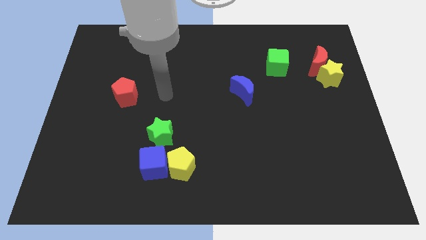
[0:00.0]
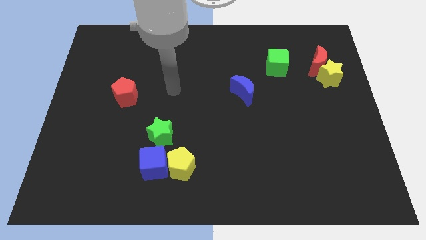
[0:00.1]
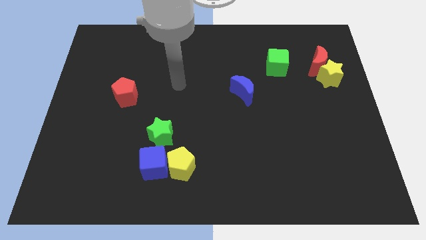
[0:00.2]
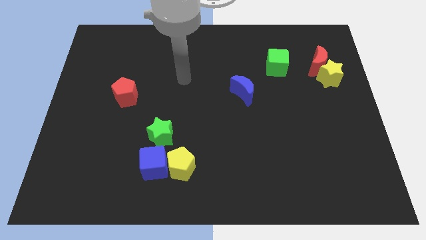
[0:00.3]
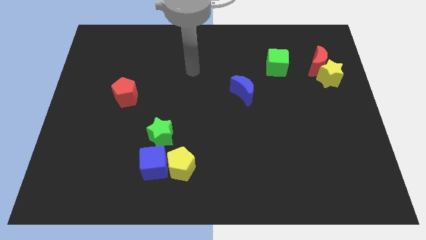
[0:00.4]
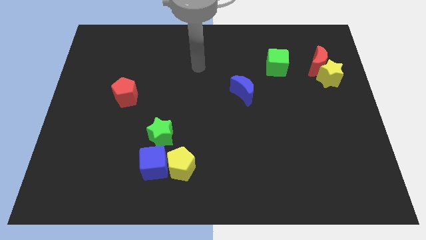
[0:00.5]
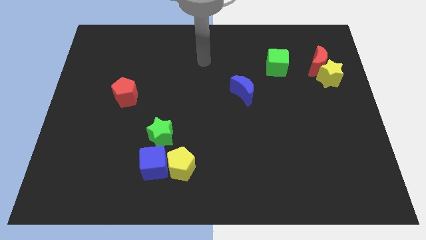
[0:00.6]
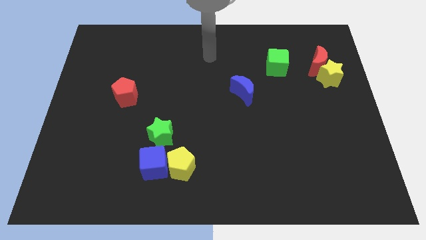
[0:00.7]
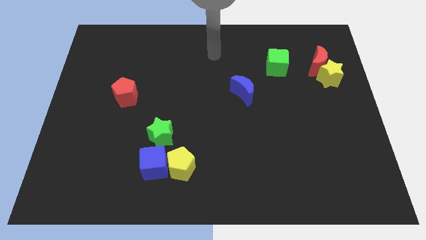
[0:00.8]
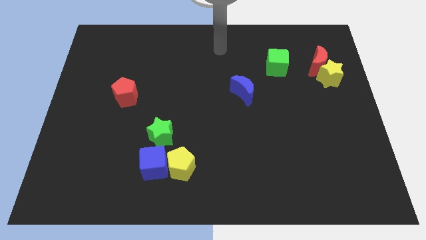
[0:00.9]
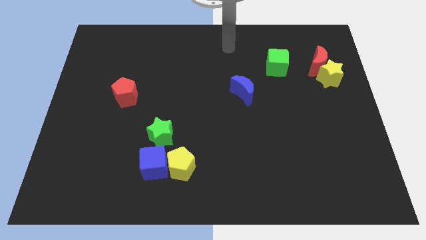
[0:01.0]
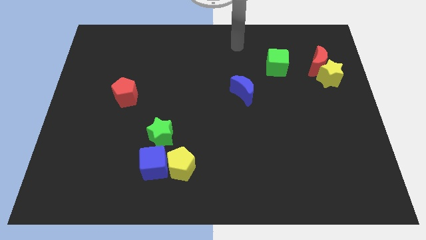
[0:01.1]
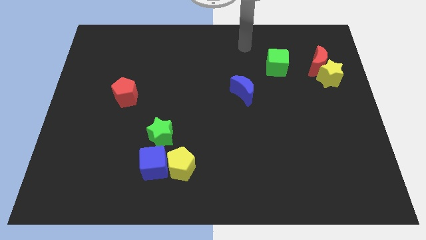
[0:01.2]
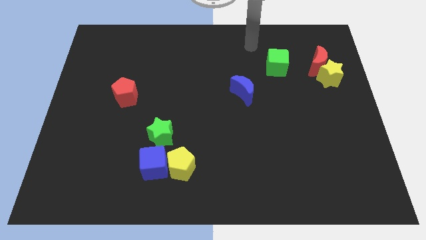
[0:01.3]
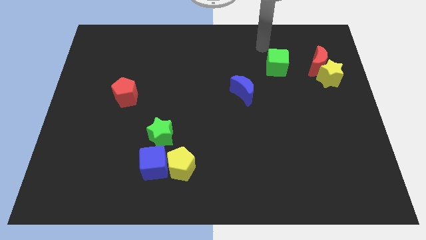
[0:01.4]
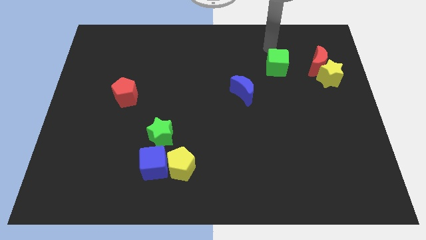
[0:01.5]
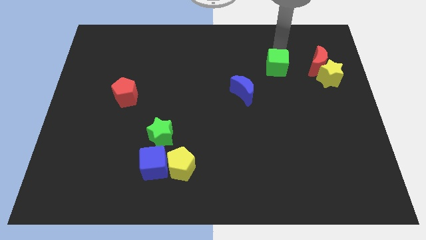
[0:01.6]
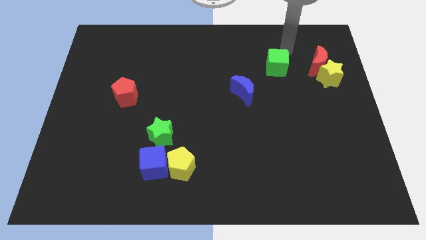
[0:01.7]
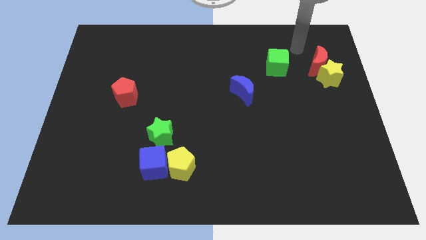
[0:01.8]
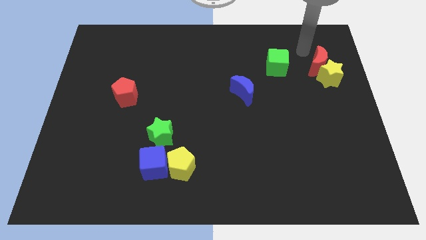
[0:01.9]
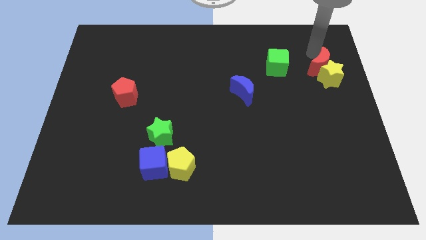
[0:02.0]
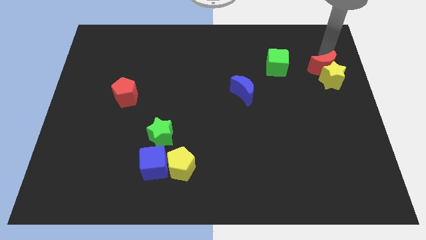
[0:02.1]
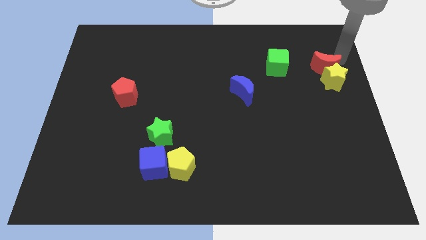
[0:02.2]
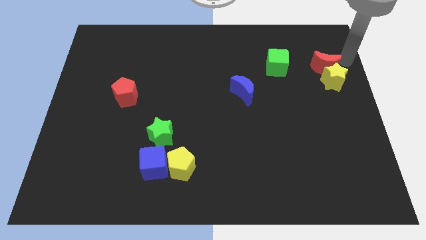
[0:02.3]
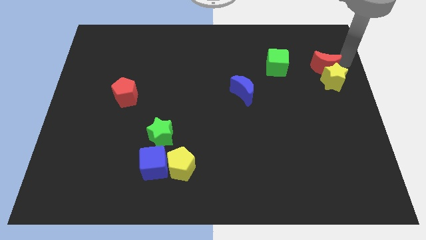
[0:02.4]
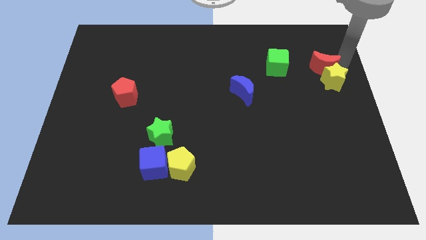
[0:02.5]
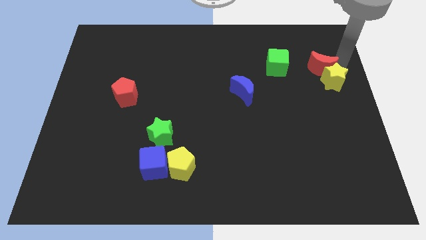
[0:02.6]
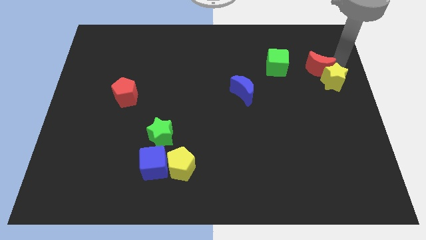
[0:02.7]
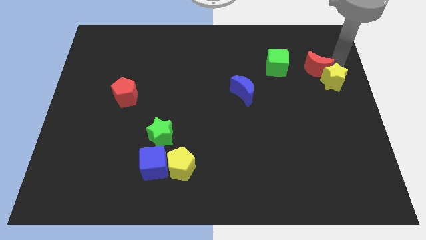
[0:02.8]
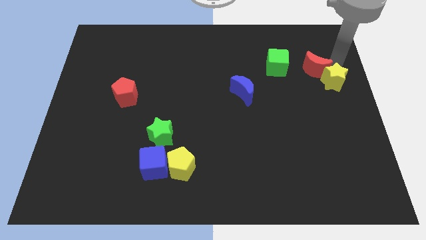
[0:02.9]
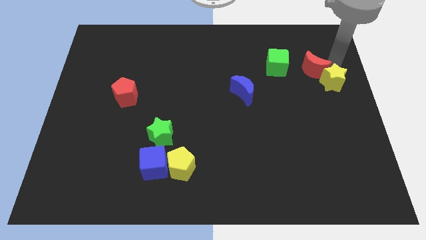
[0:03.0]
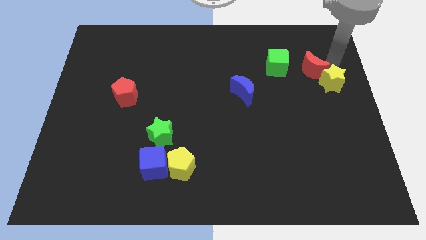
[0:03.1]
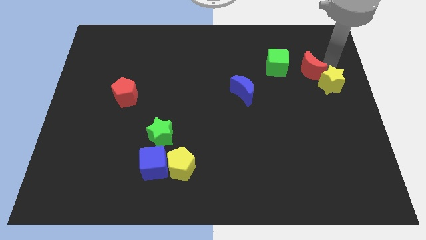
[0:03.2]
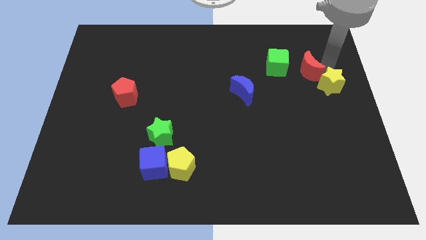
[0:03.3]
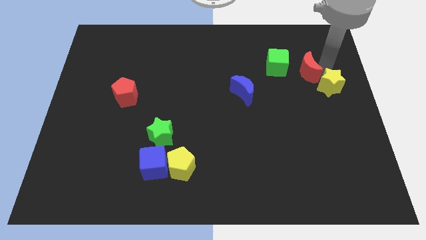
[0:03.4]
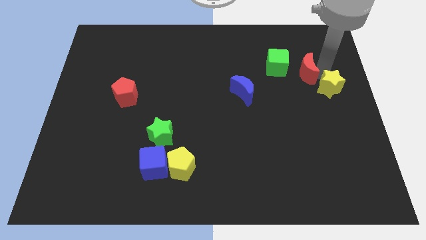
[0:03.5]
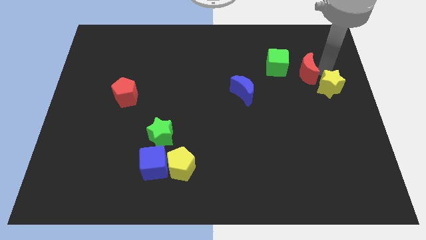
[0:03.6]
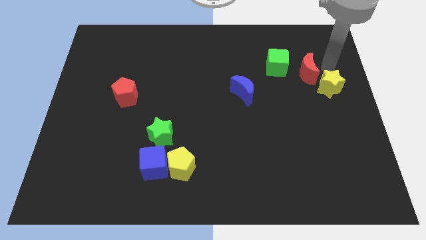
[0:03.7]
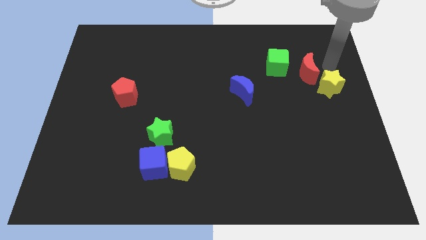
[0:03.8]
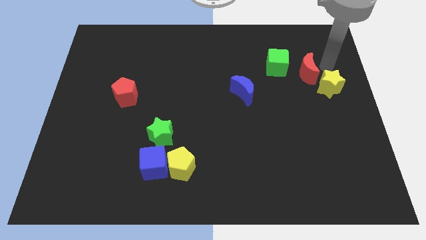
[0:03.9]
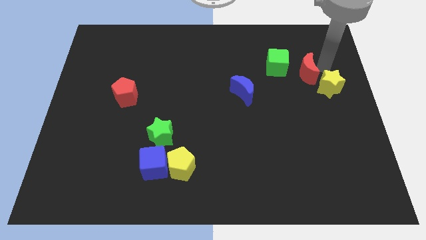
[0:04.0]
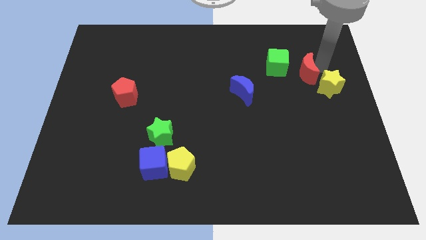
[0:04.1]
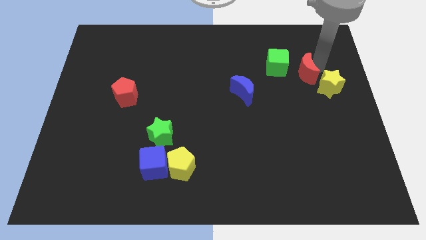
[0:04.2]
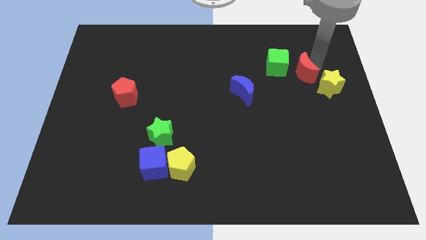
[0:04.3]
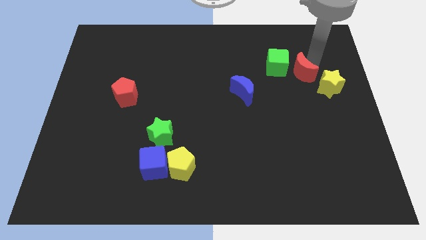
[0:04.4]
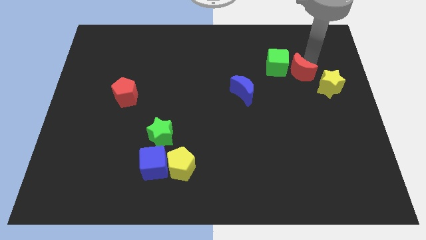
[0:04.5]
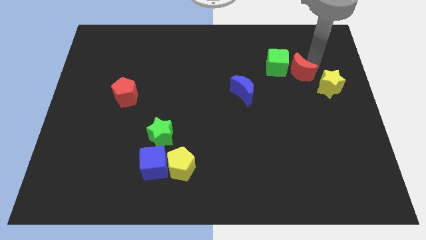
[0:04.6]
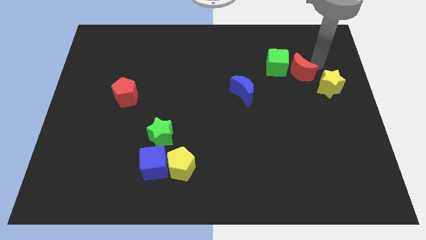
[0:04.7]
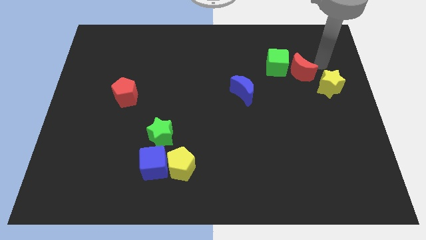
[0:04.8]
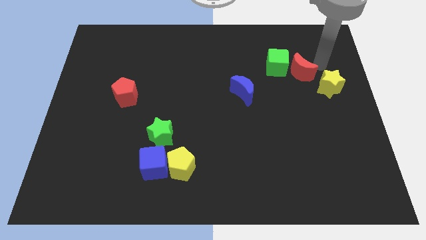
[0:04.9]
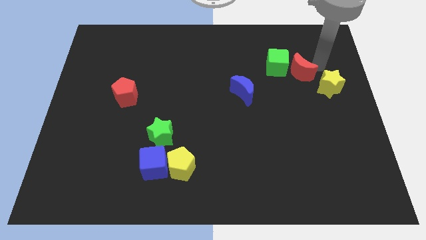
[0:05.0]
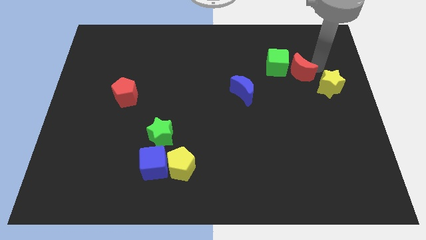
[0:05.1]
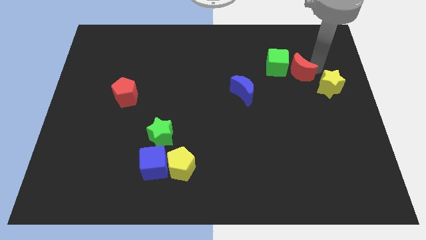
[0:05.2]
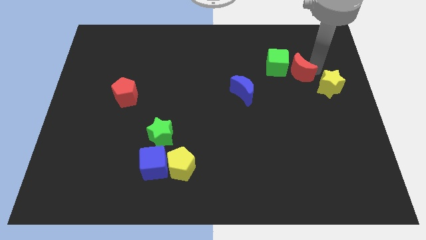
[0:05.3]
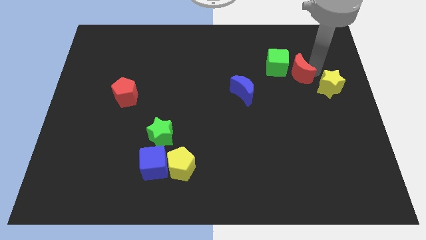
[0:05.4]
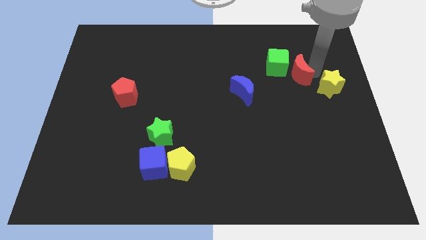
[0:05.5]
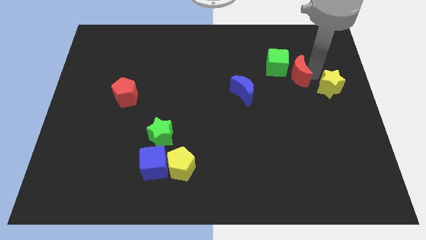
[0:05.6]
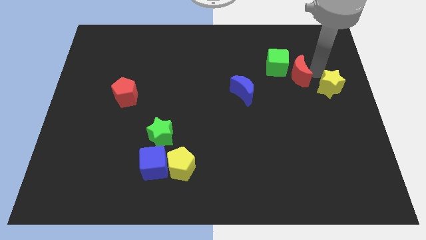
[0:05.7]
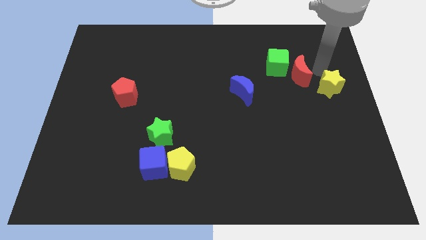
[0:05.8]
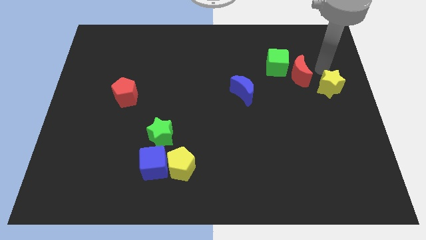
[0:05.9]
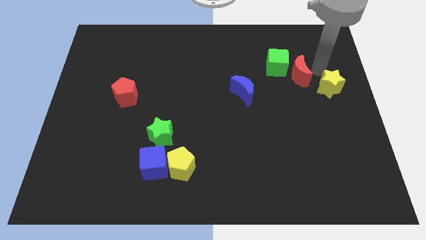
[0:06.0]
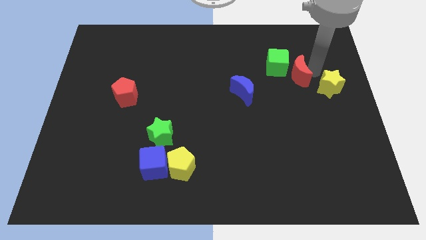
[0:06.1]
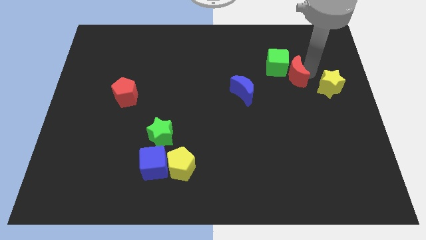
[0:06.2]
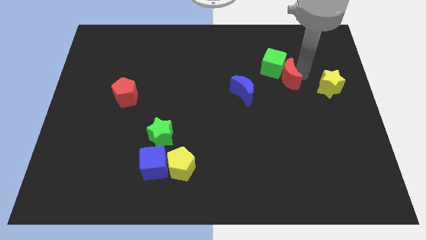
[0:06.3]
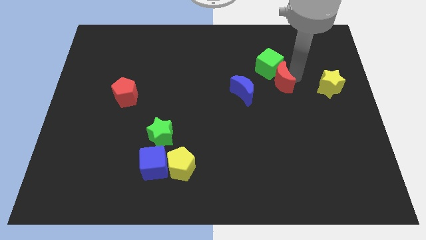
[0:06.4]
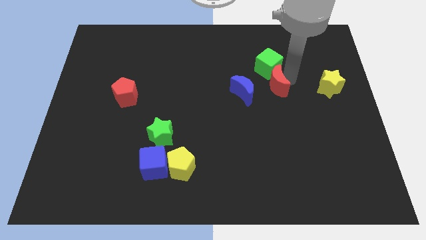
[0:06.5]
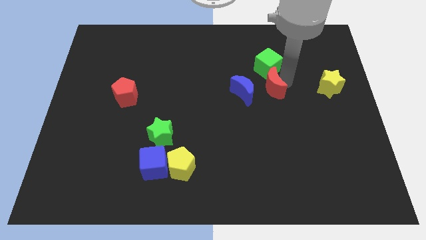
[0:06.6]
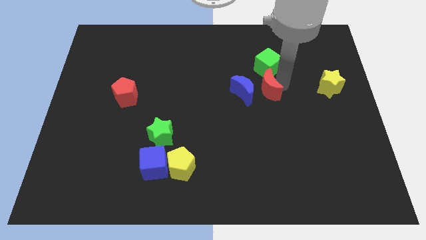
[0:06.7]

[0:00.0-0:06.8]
move the red moon towards the blue moon

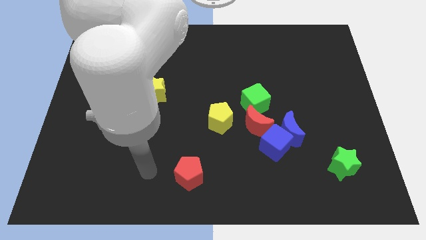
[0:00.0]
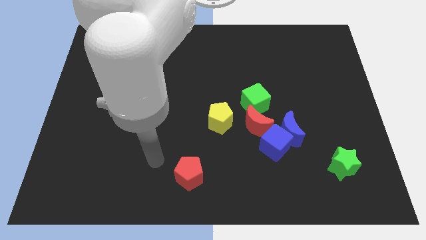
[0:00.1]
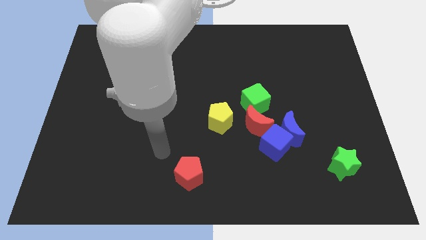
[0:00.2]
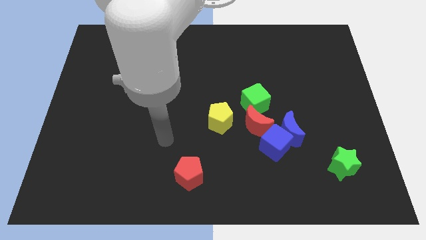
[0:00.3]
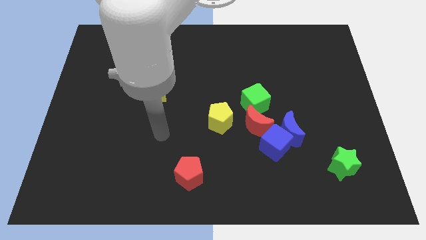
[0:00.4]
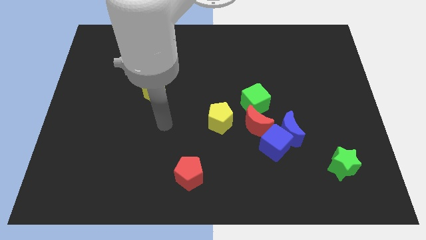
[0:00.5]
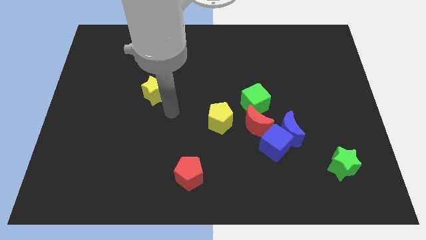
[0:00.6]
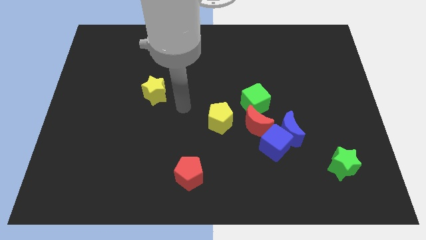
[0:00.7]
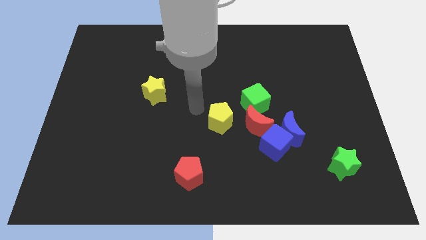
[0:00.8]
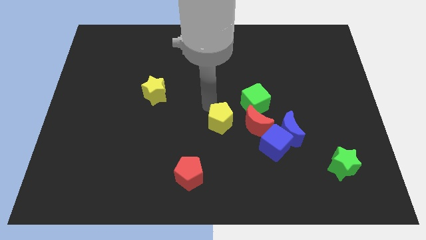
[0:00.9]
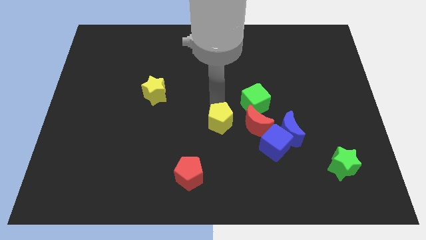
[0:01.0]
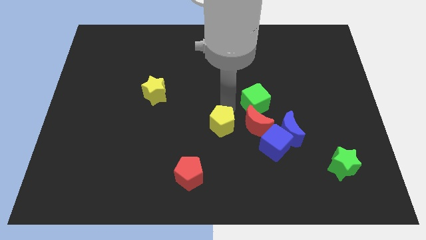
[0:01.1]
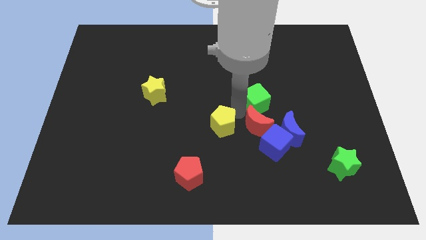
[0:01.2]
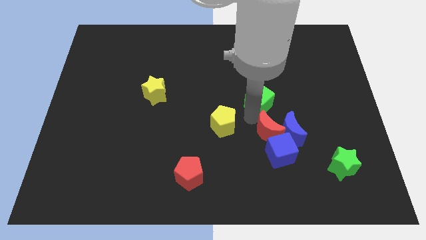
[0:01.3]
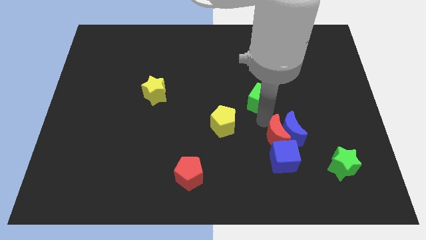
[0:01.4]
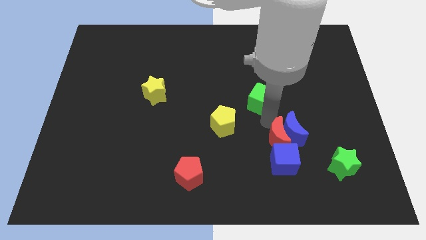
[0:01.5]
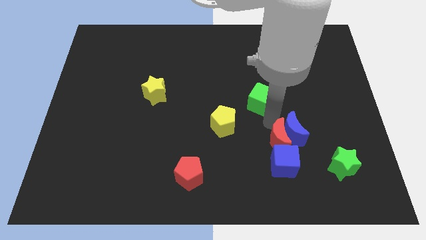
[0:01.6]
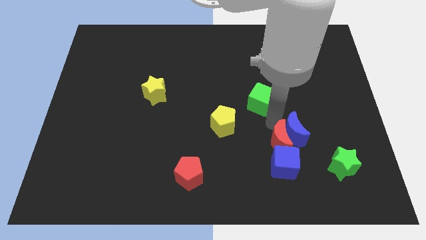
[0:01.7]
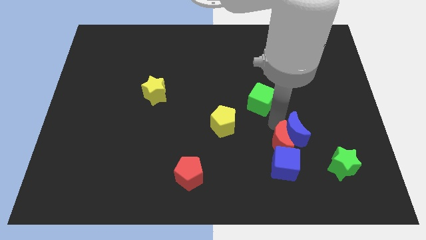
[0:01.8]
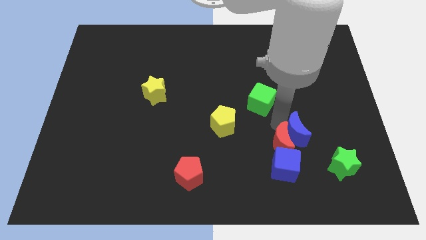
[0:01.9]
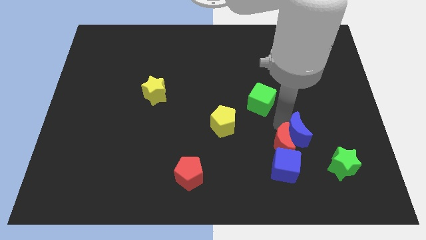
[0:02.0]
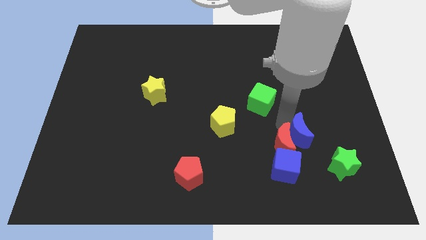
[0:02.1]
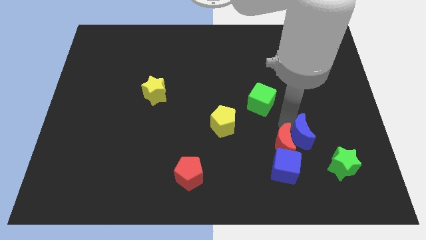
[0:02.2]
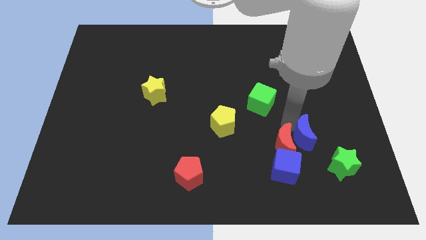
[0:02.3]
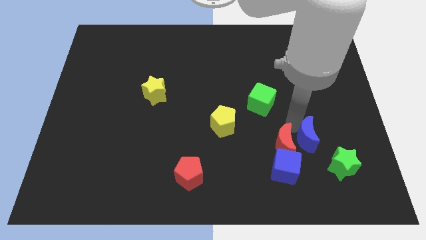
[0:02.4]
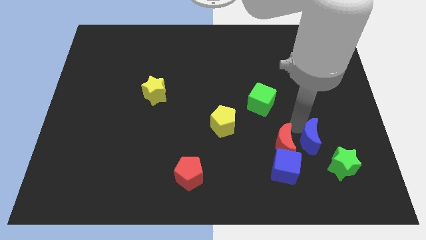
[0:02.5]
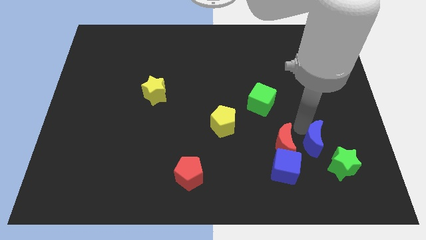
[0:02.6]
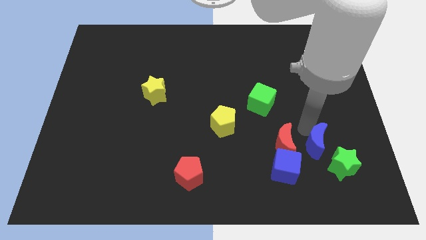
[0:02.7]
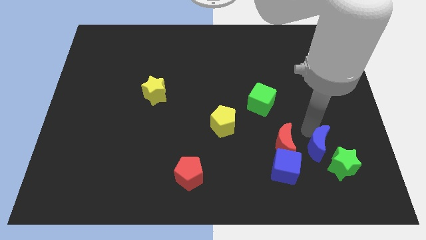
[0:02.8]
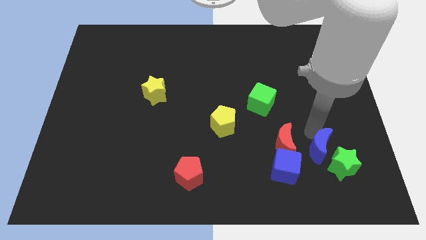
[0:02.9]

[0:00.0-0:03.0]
slide the blue moon close to the green star
